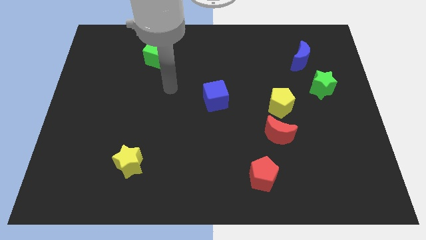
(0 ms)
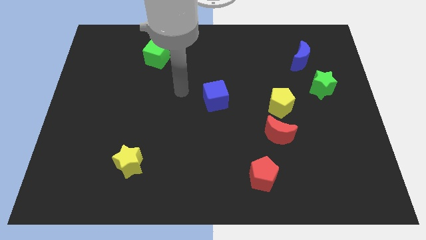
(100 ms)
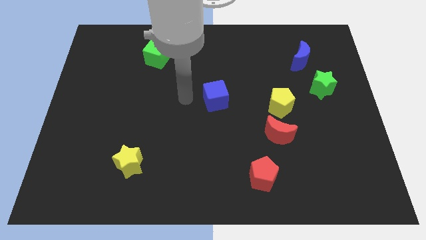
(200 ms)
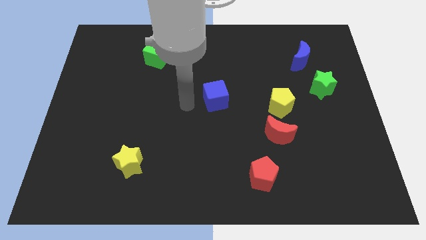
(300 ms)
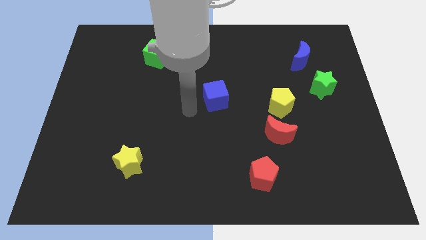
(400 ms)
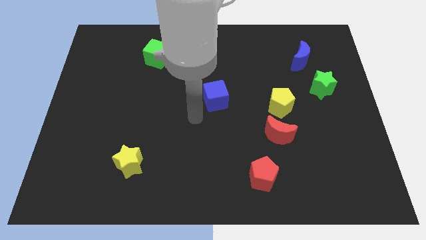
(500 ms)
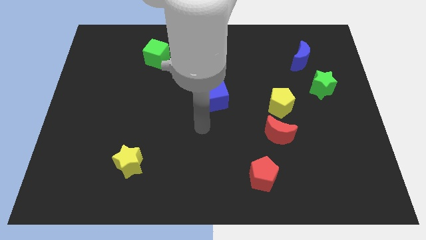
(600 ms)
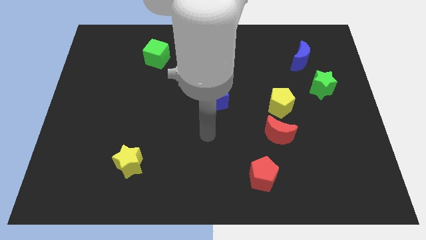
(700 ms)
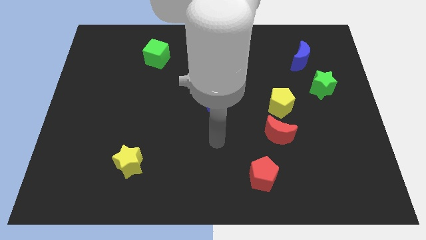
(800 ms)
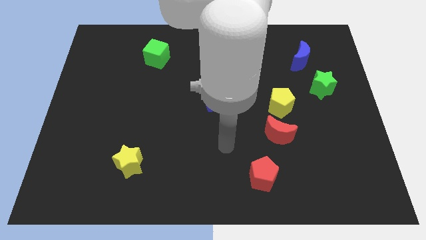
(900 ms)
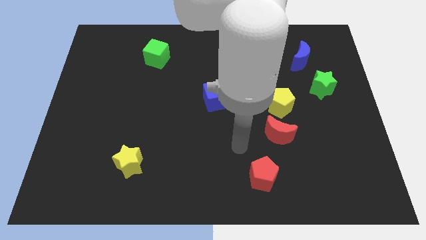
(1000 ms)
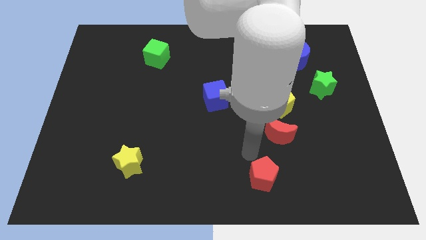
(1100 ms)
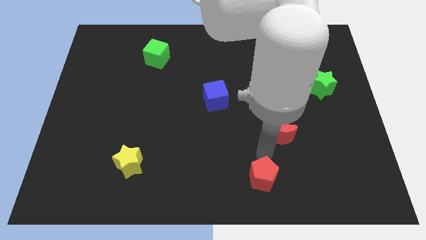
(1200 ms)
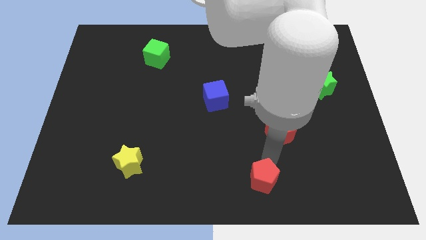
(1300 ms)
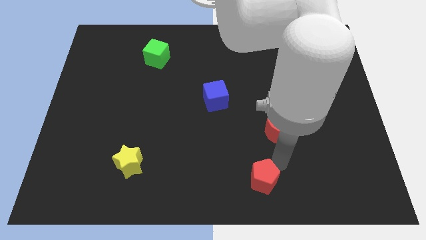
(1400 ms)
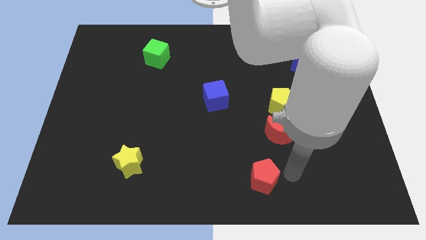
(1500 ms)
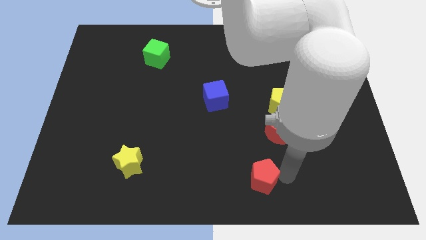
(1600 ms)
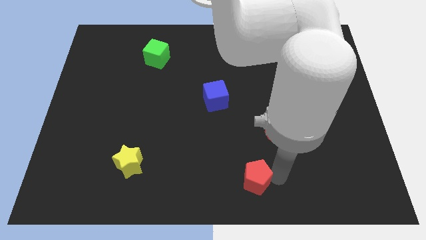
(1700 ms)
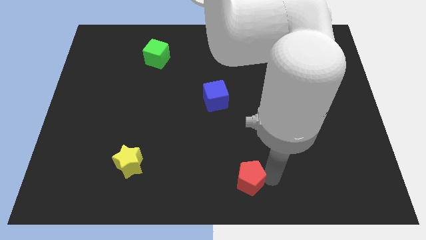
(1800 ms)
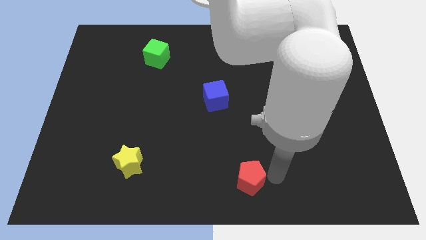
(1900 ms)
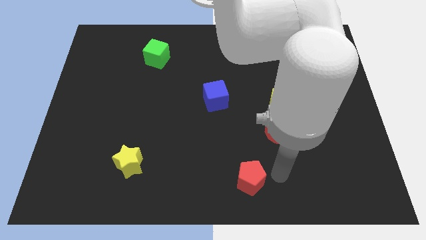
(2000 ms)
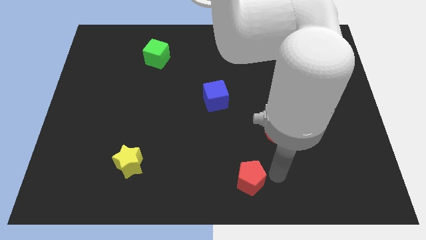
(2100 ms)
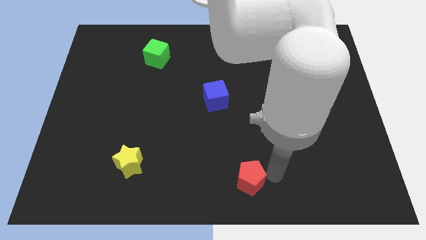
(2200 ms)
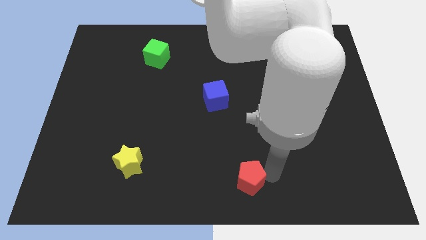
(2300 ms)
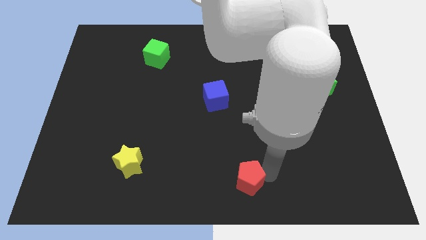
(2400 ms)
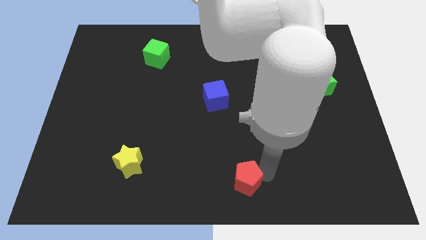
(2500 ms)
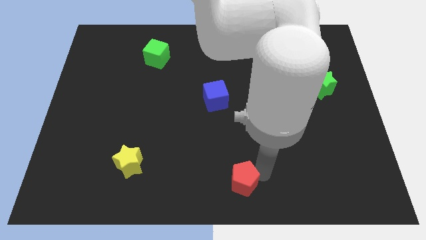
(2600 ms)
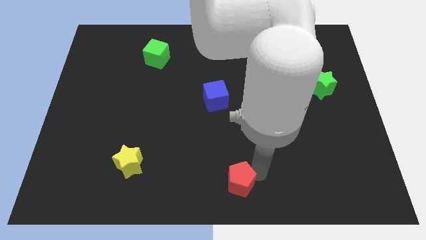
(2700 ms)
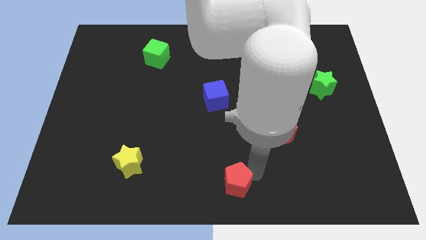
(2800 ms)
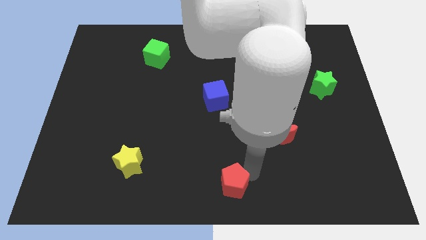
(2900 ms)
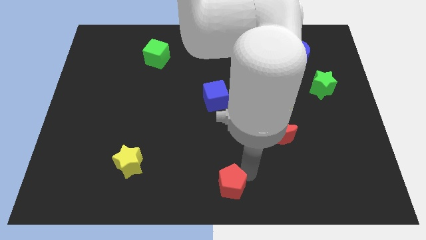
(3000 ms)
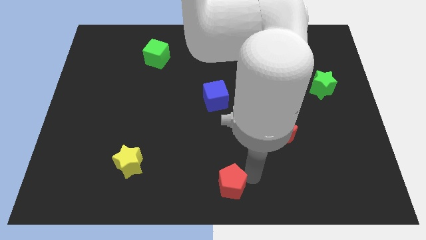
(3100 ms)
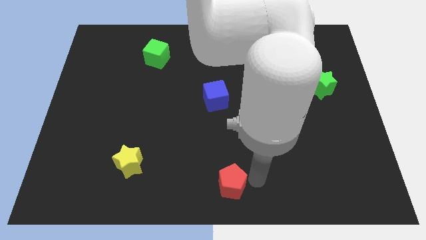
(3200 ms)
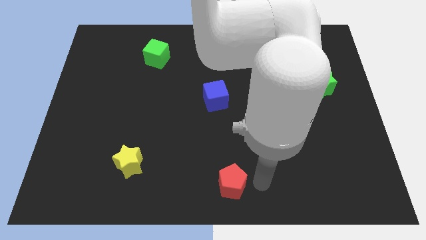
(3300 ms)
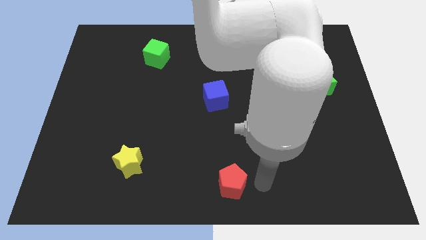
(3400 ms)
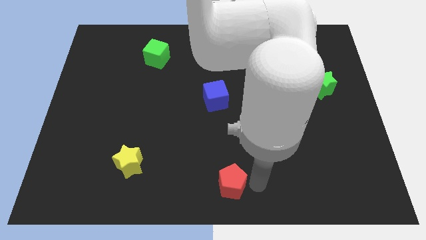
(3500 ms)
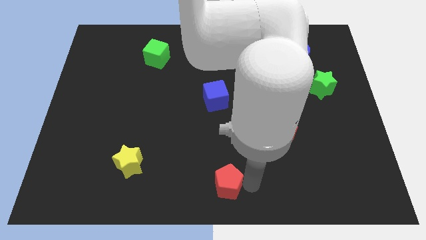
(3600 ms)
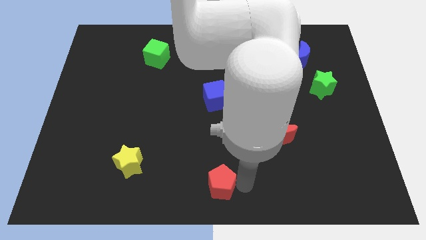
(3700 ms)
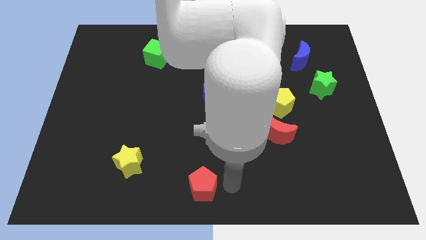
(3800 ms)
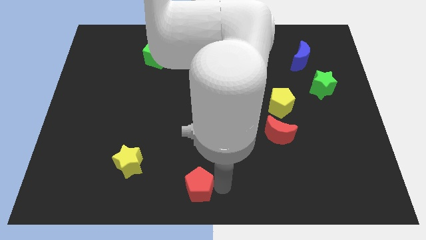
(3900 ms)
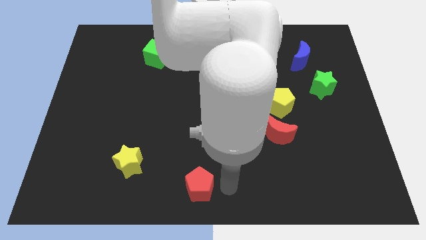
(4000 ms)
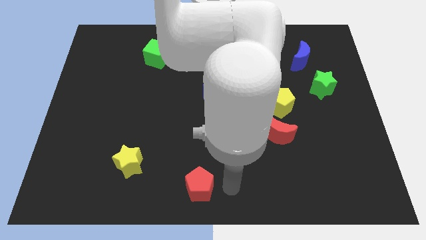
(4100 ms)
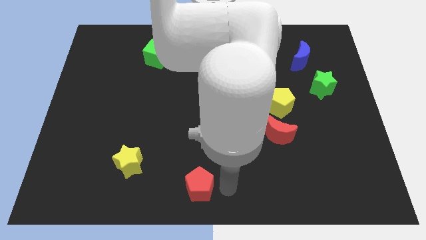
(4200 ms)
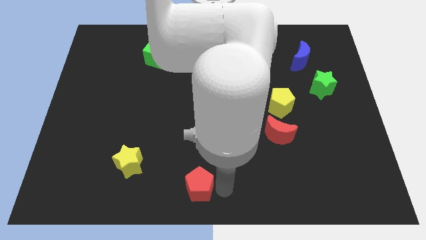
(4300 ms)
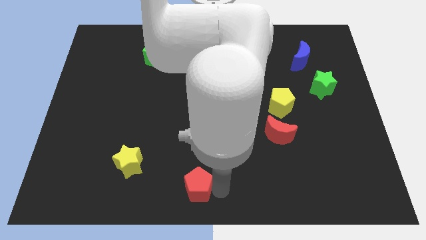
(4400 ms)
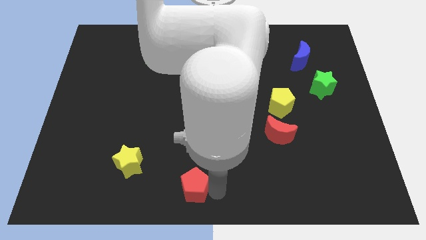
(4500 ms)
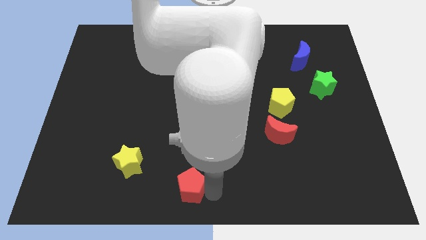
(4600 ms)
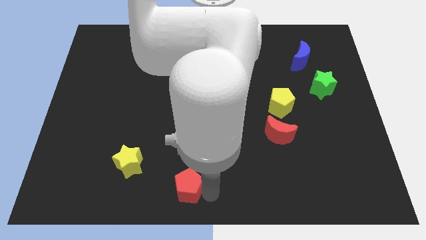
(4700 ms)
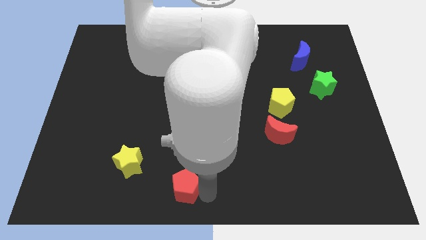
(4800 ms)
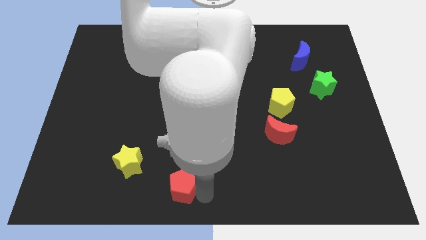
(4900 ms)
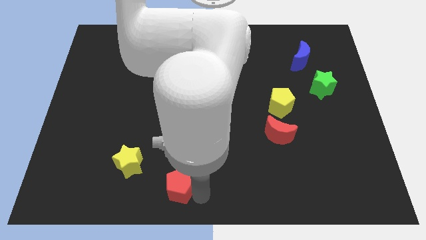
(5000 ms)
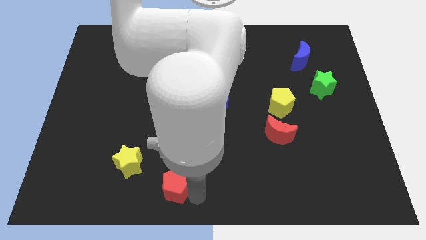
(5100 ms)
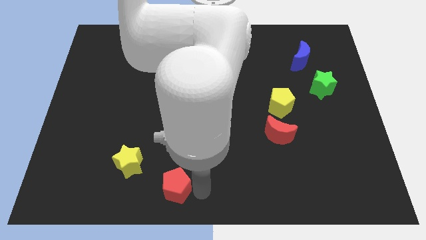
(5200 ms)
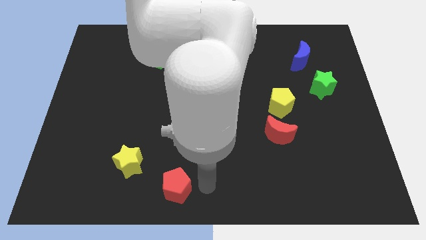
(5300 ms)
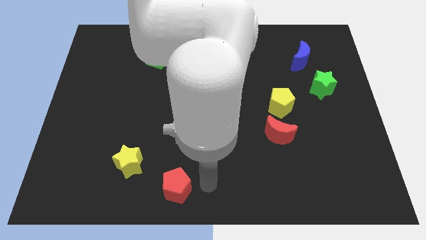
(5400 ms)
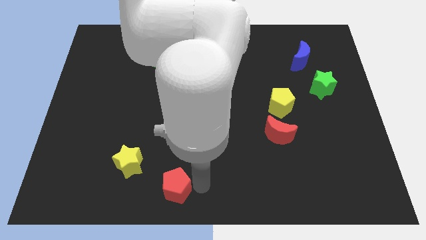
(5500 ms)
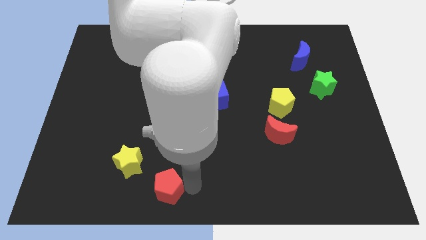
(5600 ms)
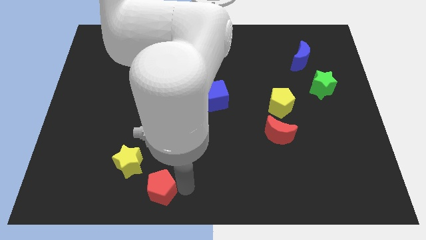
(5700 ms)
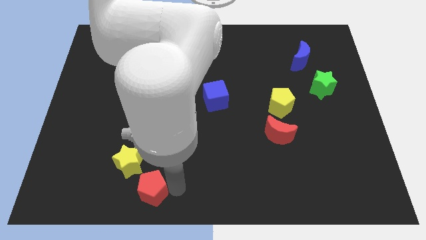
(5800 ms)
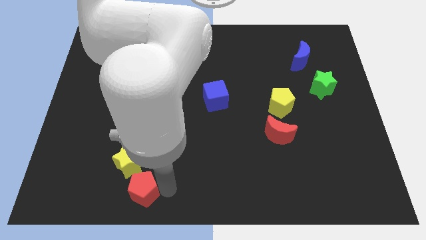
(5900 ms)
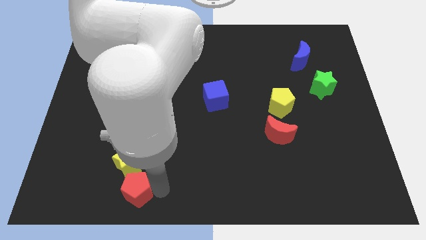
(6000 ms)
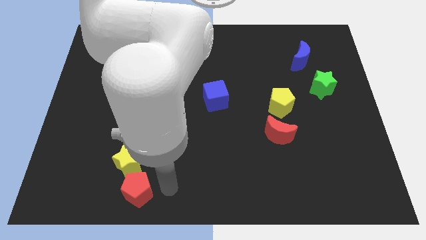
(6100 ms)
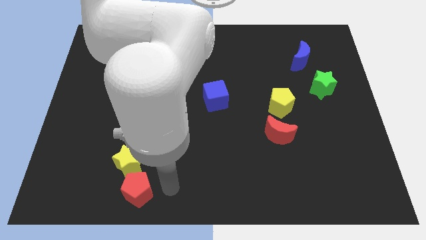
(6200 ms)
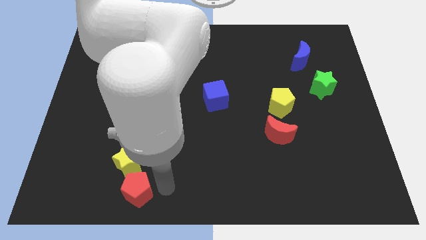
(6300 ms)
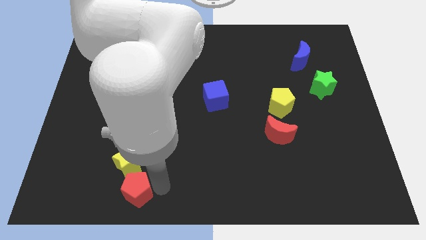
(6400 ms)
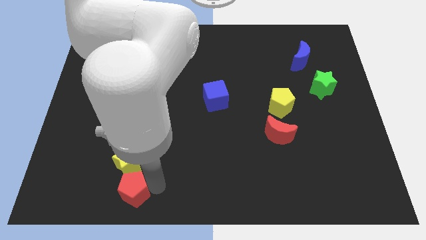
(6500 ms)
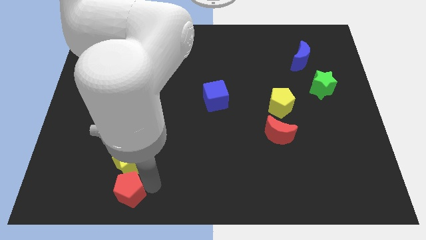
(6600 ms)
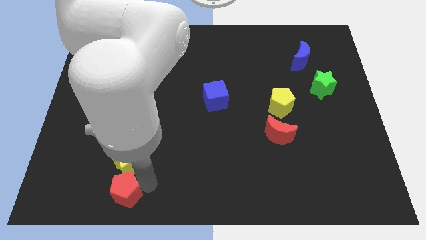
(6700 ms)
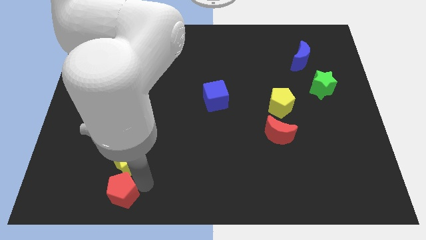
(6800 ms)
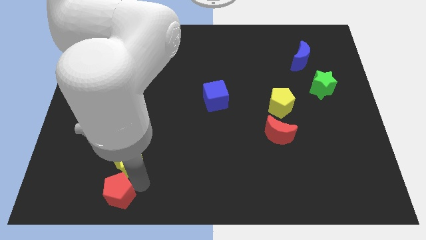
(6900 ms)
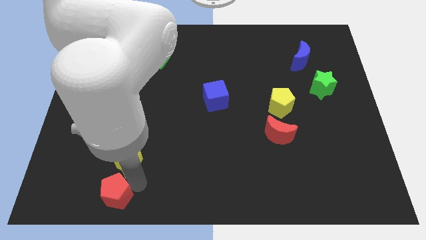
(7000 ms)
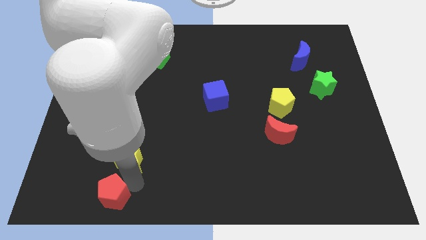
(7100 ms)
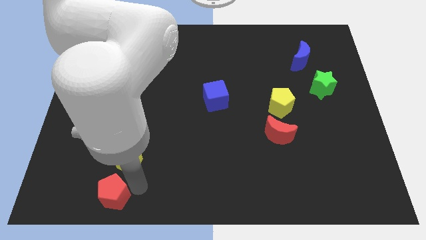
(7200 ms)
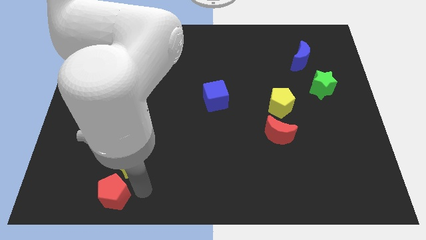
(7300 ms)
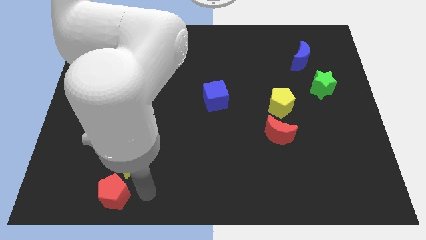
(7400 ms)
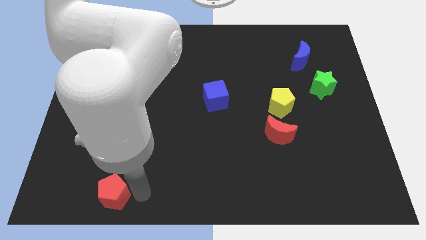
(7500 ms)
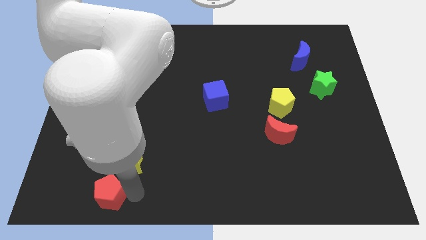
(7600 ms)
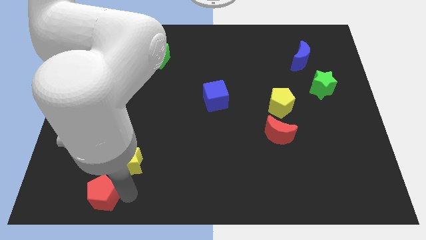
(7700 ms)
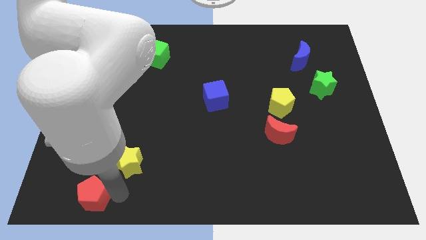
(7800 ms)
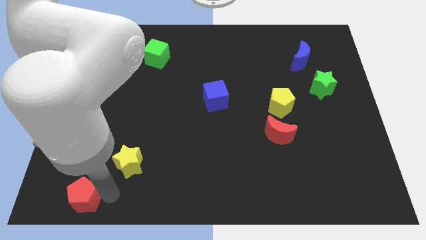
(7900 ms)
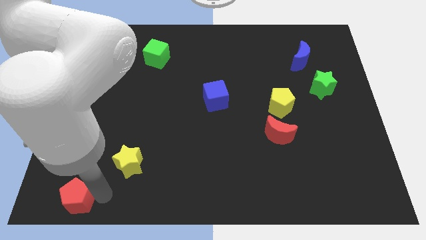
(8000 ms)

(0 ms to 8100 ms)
move the red pentagon to the bottom left corner
